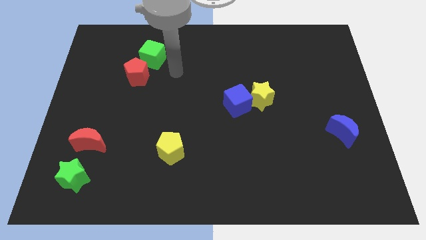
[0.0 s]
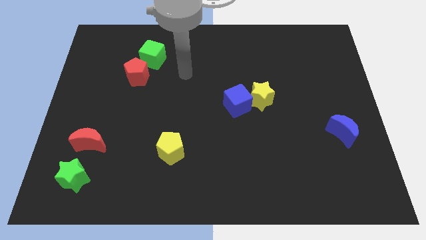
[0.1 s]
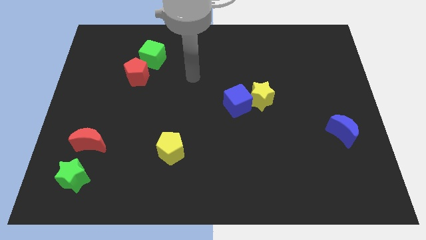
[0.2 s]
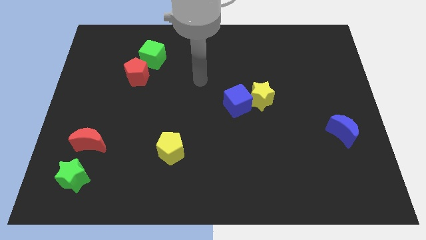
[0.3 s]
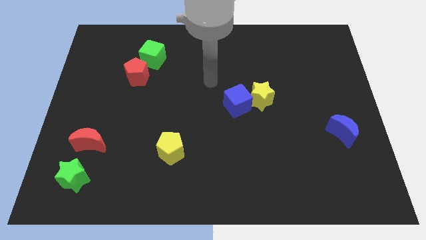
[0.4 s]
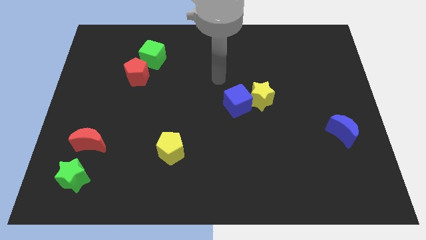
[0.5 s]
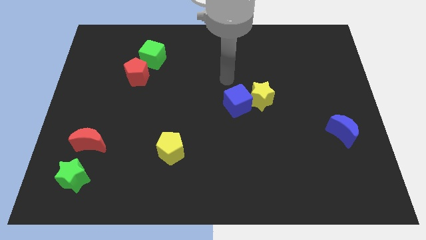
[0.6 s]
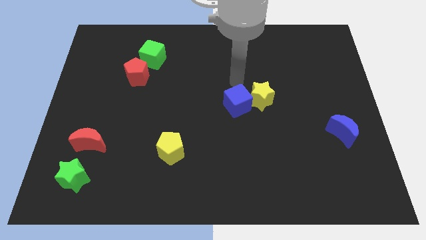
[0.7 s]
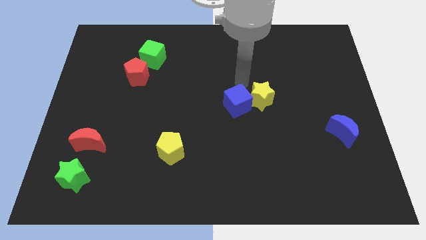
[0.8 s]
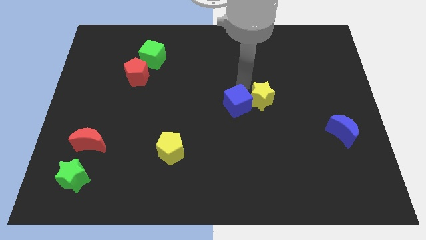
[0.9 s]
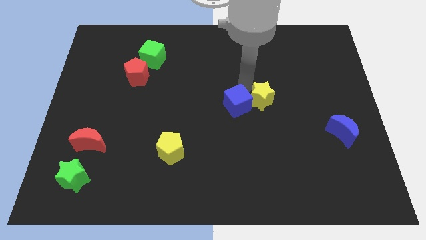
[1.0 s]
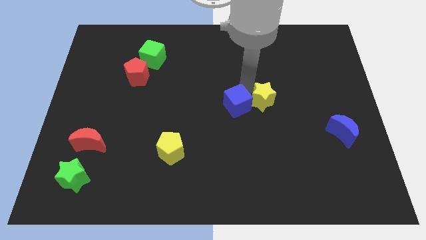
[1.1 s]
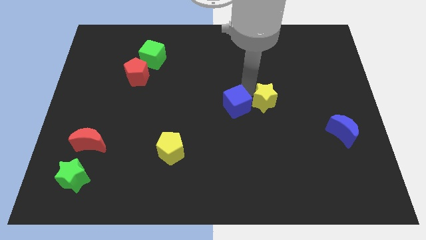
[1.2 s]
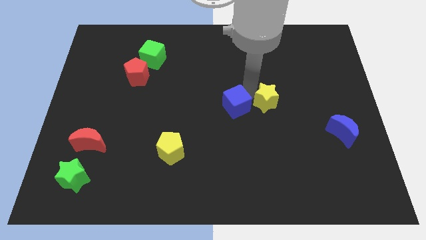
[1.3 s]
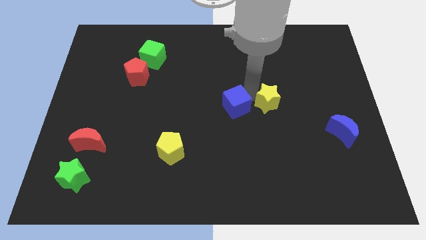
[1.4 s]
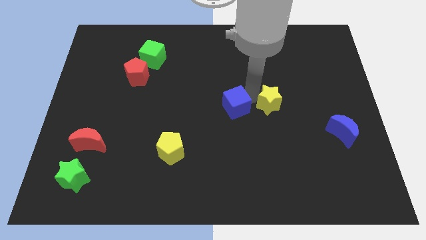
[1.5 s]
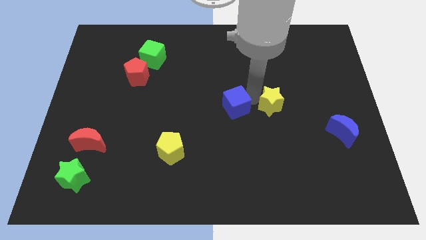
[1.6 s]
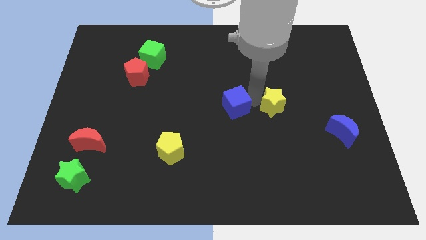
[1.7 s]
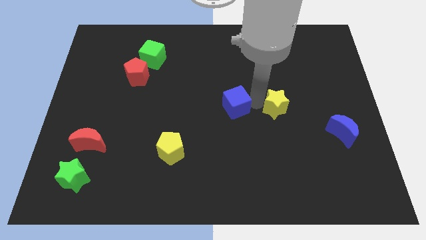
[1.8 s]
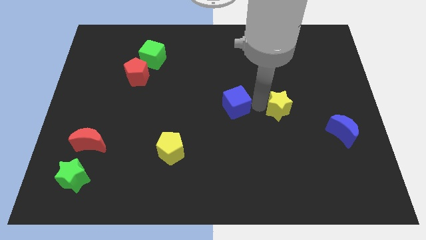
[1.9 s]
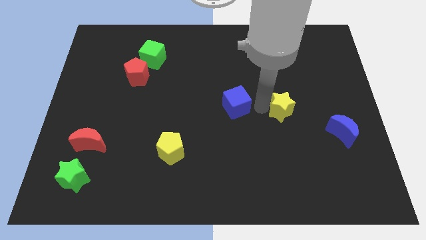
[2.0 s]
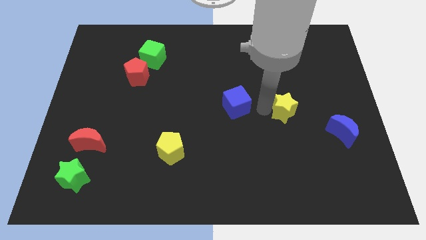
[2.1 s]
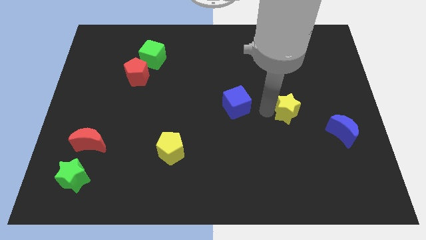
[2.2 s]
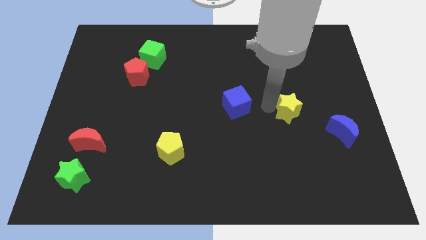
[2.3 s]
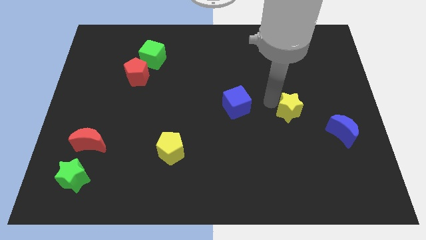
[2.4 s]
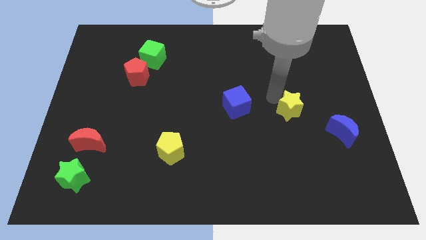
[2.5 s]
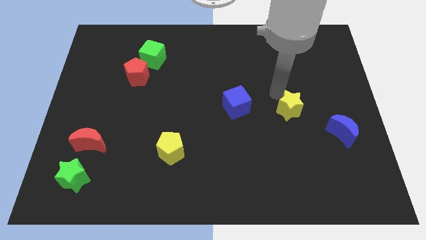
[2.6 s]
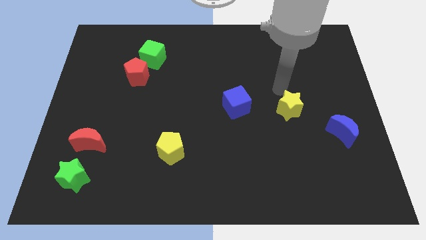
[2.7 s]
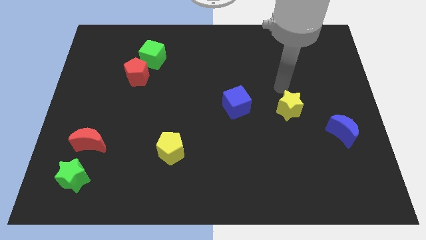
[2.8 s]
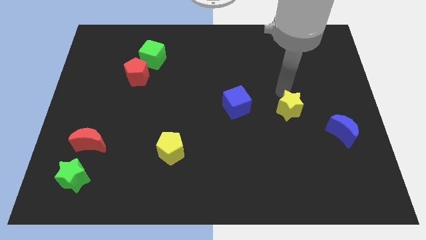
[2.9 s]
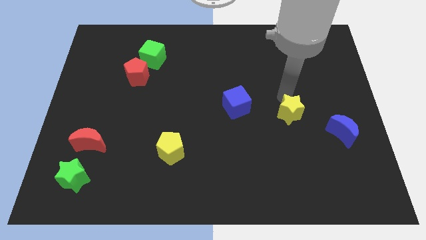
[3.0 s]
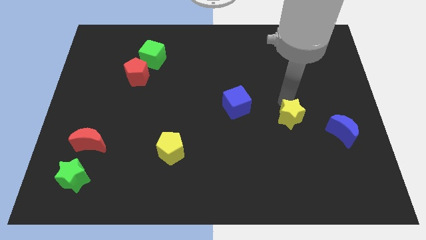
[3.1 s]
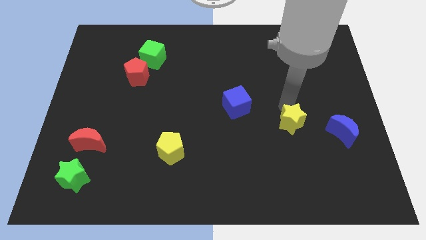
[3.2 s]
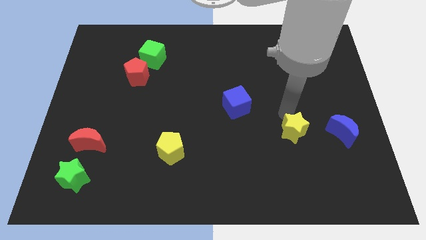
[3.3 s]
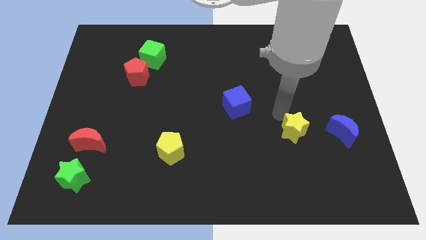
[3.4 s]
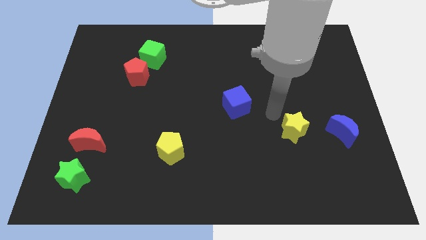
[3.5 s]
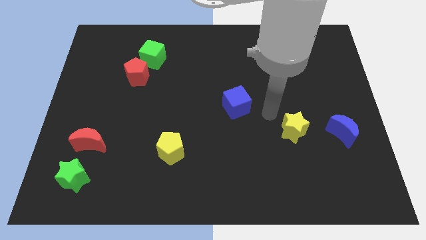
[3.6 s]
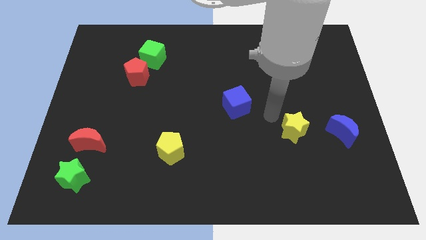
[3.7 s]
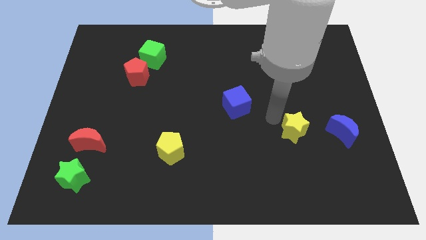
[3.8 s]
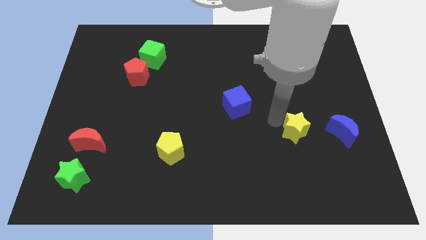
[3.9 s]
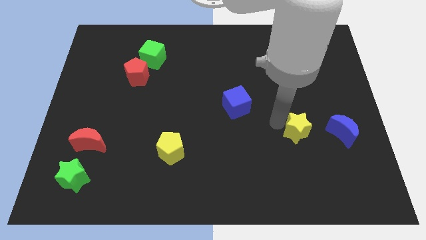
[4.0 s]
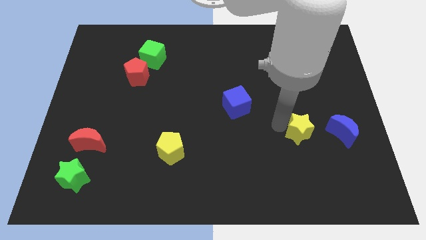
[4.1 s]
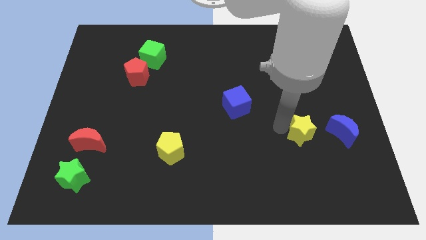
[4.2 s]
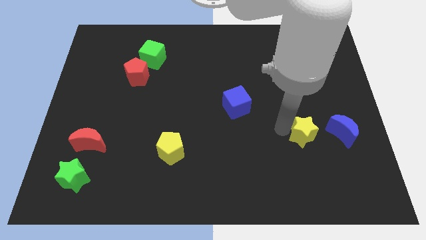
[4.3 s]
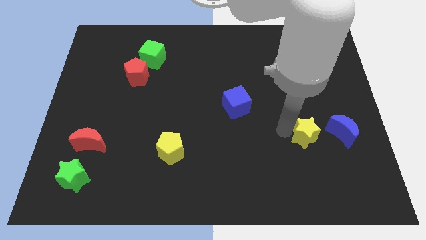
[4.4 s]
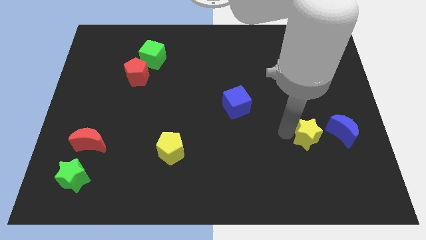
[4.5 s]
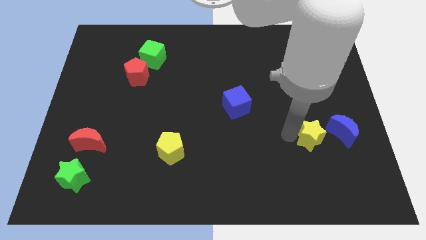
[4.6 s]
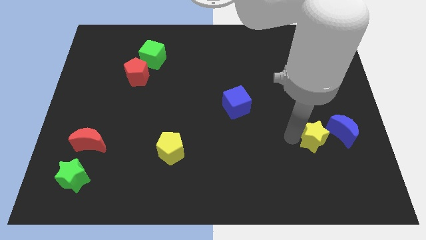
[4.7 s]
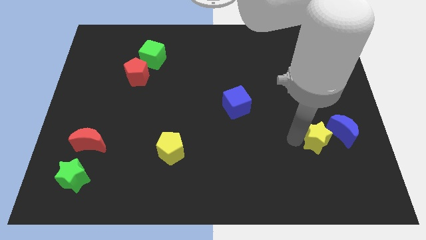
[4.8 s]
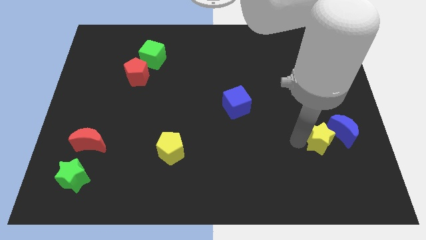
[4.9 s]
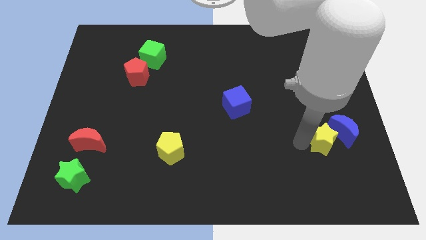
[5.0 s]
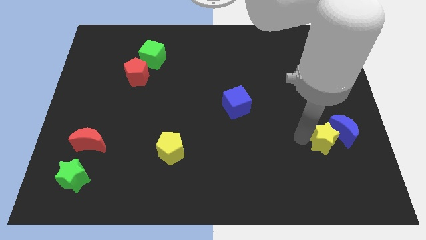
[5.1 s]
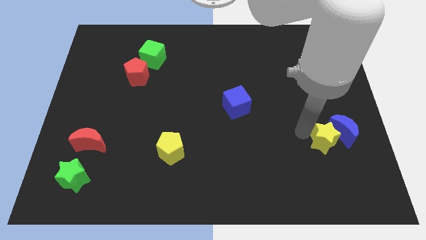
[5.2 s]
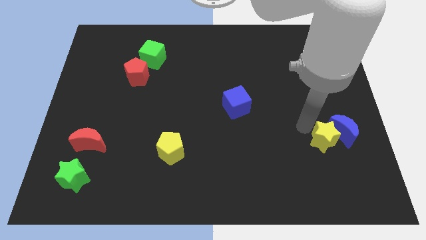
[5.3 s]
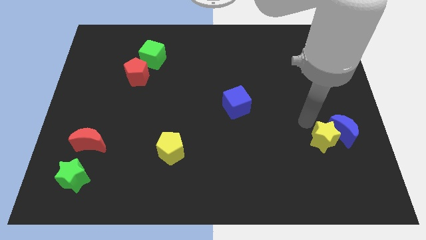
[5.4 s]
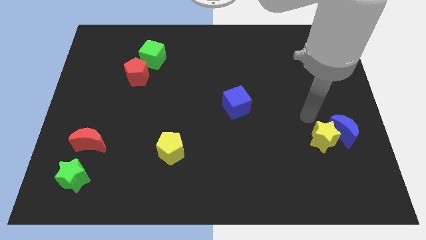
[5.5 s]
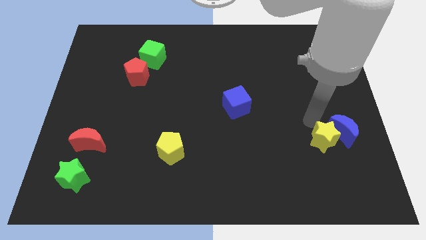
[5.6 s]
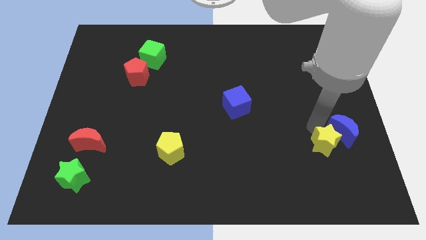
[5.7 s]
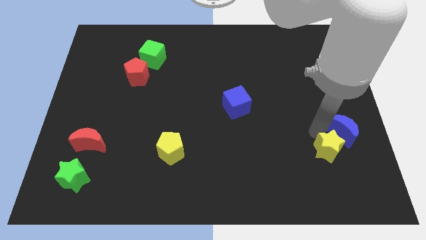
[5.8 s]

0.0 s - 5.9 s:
put the yellow star to the bottom side of the blue moon
